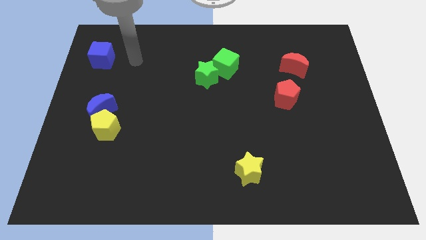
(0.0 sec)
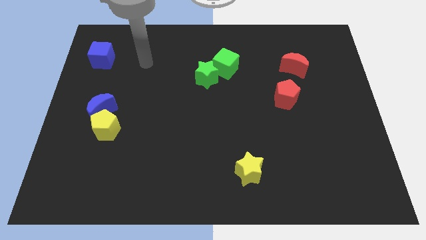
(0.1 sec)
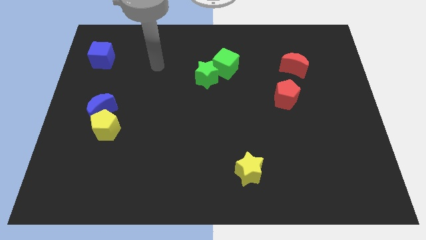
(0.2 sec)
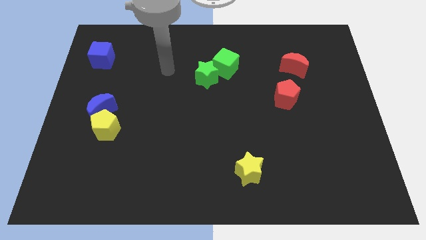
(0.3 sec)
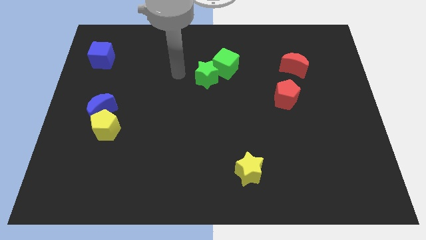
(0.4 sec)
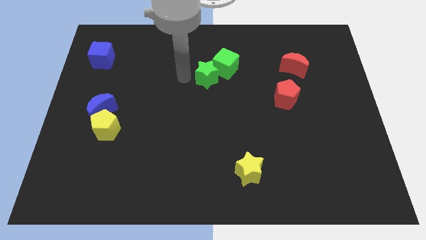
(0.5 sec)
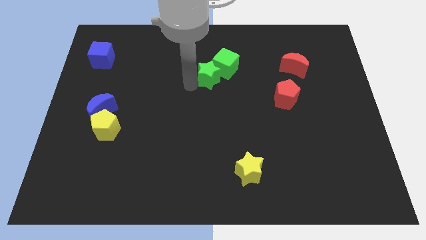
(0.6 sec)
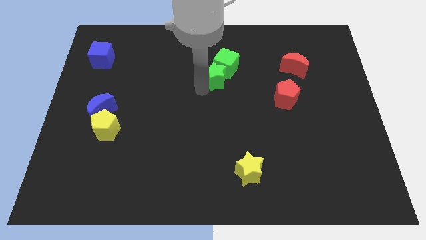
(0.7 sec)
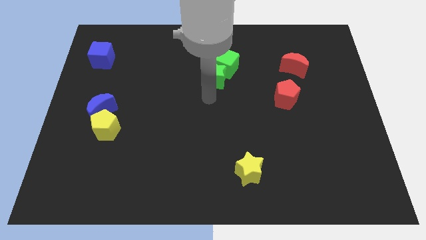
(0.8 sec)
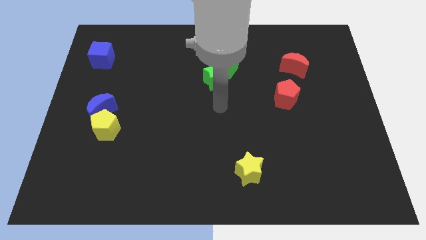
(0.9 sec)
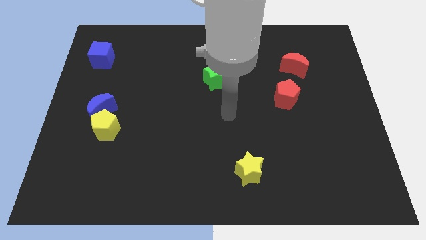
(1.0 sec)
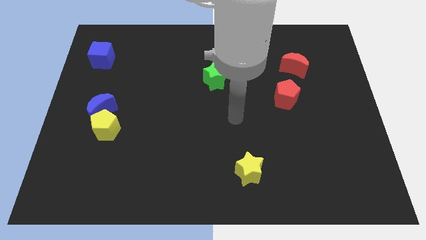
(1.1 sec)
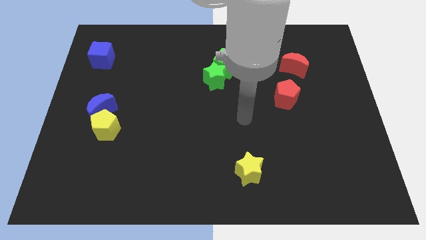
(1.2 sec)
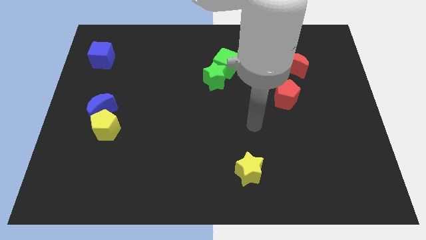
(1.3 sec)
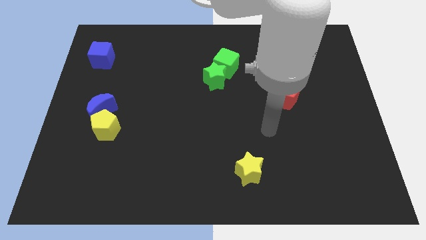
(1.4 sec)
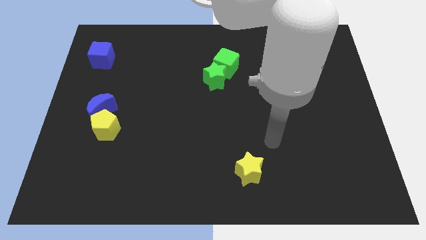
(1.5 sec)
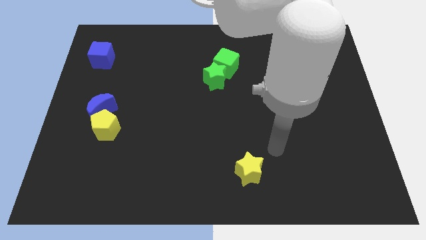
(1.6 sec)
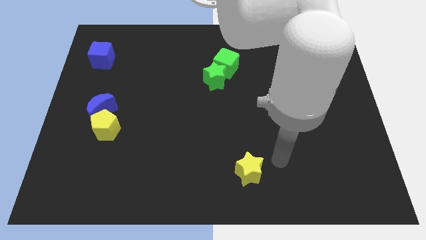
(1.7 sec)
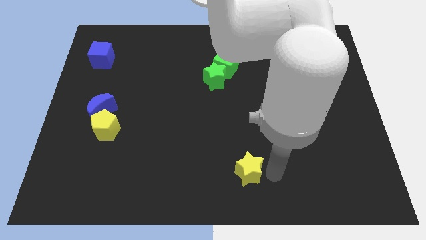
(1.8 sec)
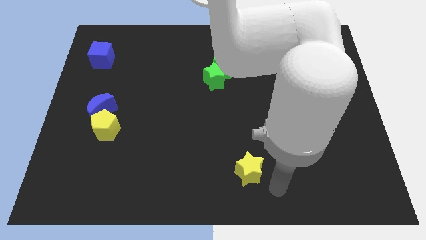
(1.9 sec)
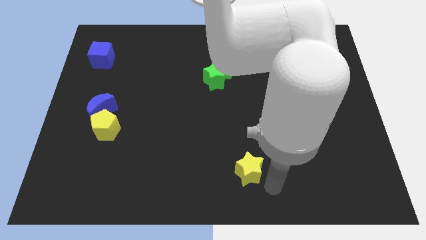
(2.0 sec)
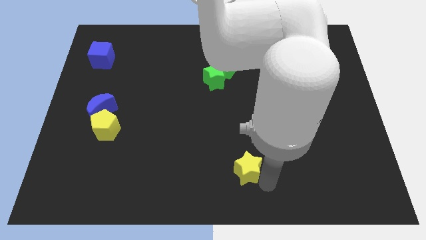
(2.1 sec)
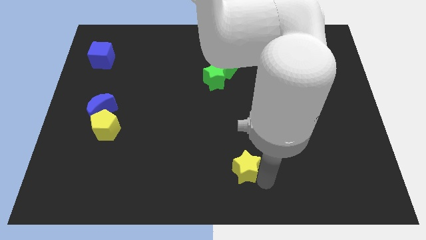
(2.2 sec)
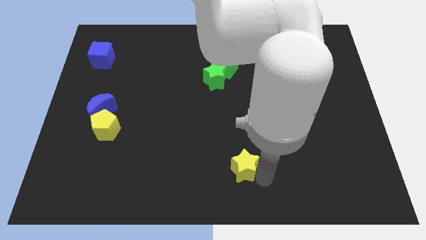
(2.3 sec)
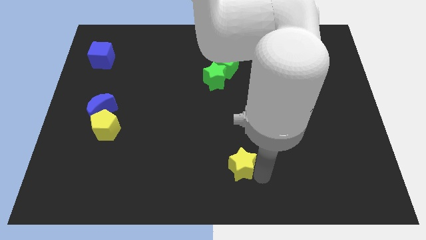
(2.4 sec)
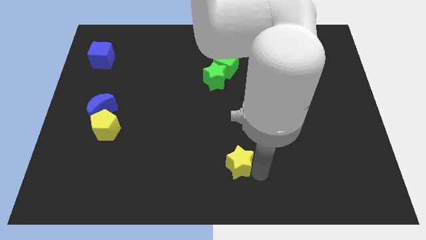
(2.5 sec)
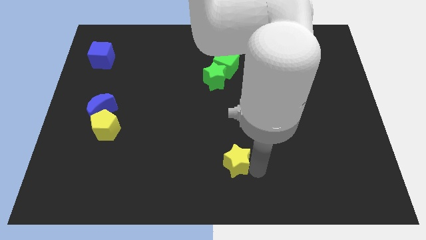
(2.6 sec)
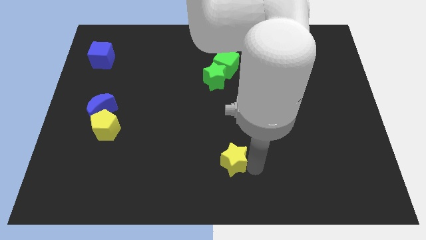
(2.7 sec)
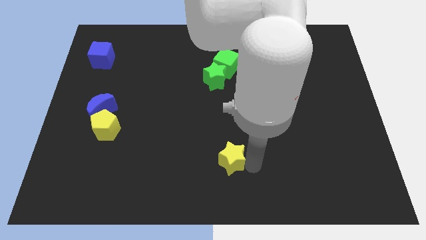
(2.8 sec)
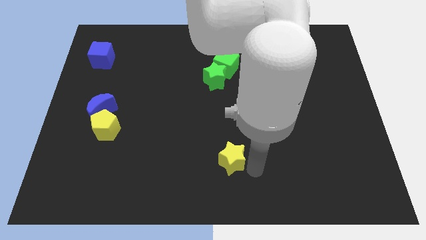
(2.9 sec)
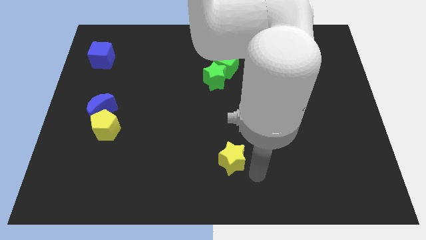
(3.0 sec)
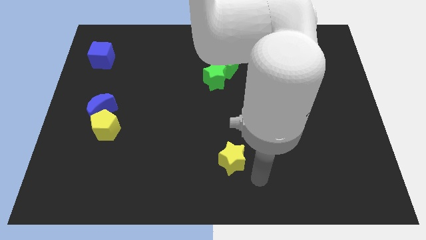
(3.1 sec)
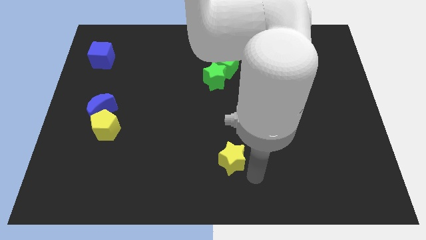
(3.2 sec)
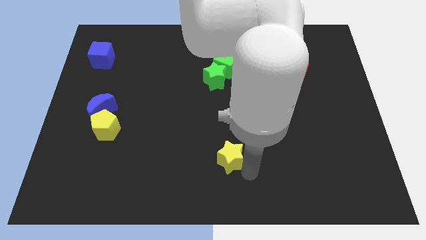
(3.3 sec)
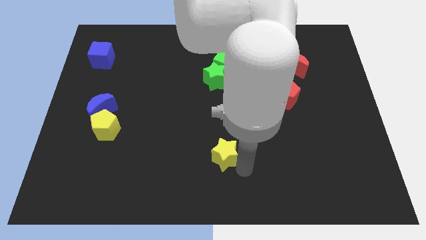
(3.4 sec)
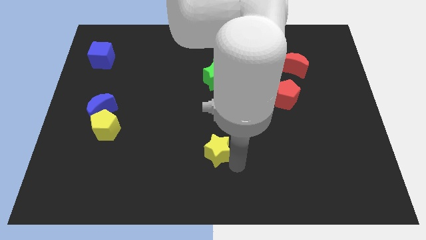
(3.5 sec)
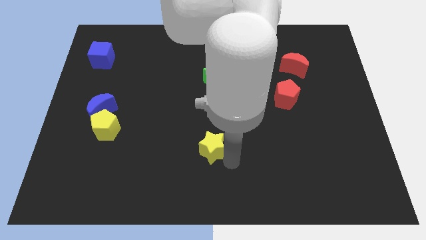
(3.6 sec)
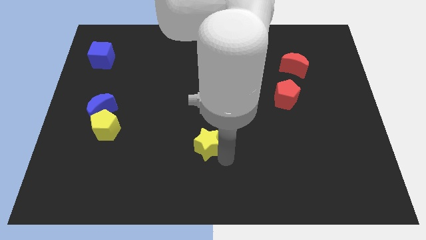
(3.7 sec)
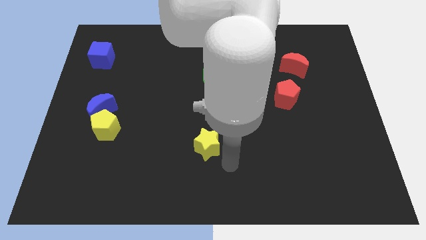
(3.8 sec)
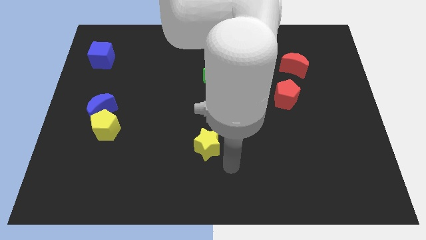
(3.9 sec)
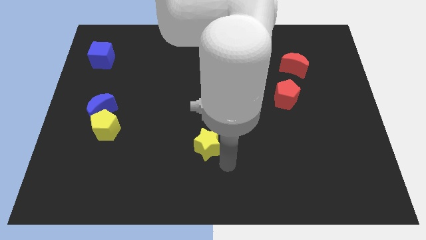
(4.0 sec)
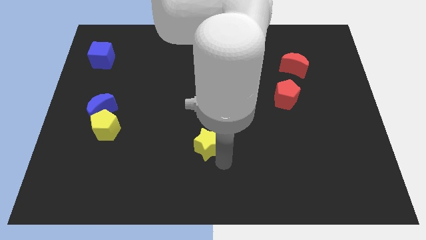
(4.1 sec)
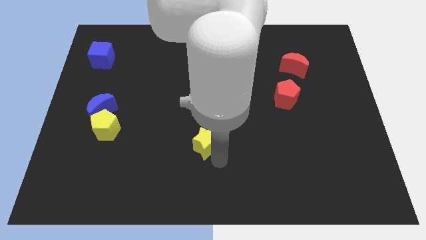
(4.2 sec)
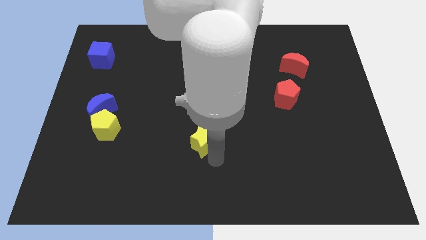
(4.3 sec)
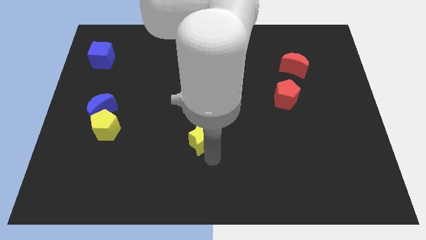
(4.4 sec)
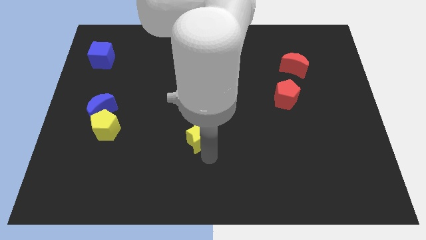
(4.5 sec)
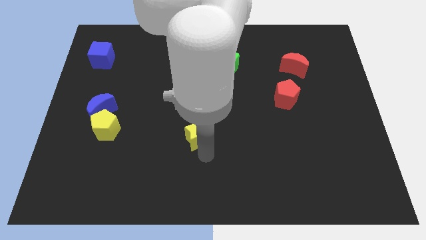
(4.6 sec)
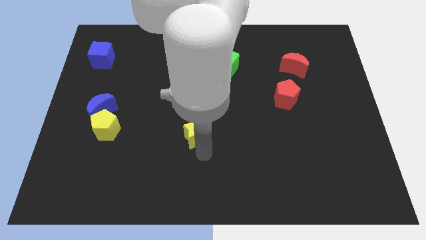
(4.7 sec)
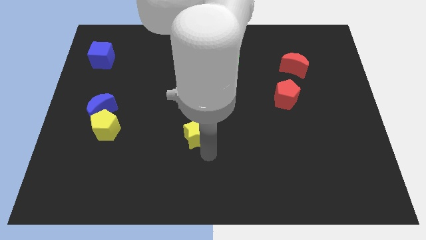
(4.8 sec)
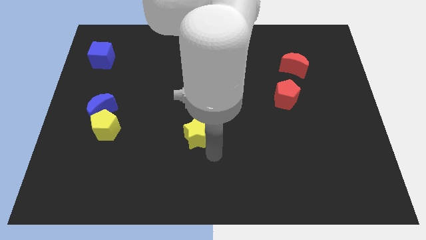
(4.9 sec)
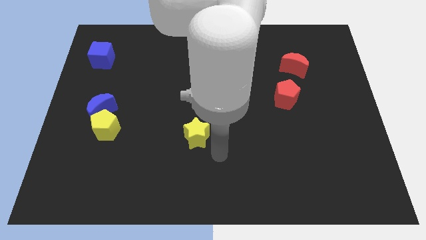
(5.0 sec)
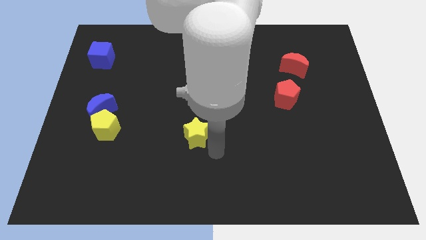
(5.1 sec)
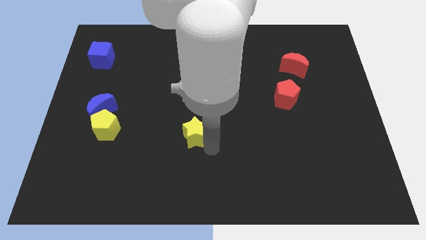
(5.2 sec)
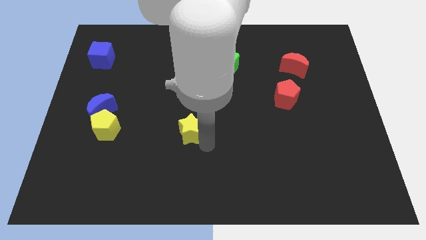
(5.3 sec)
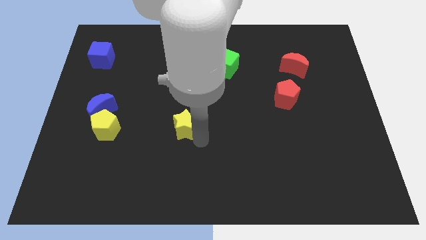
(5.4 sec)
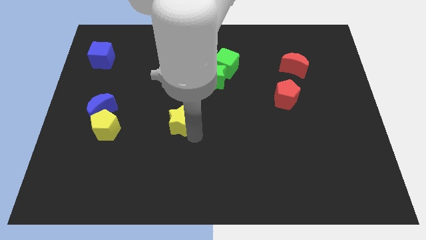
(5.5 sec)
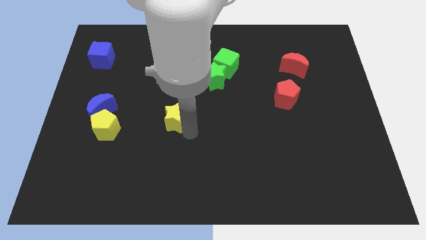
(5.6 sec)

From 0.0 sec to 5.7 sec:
slide the yellow star upwards and then to the left

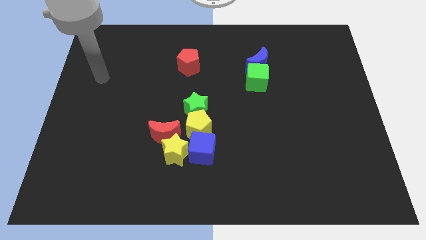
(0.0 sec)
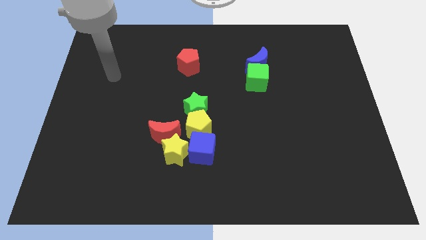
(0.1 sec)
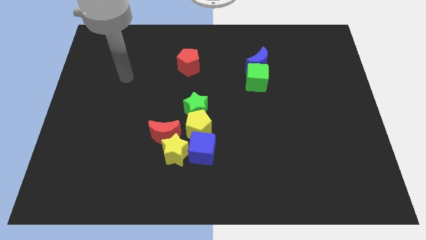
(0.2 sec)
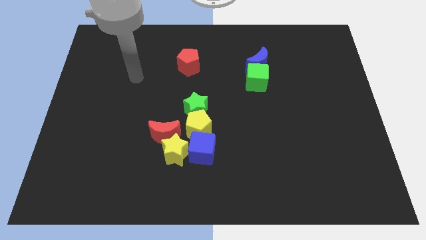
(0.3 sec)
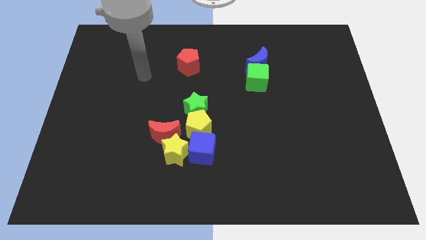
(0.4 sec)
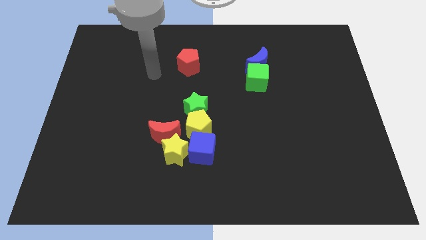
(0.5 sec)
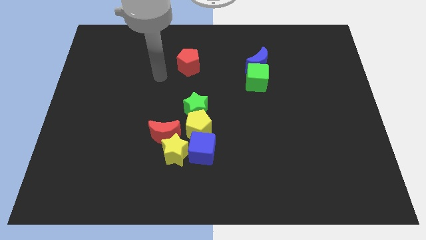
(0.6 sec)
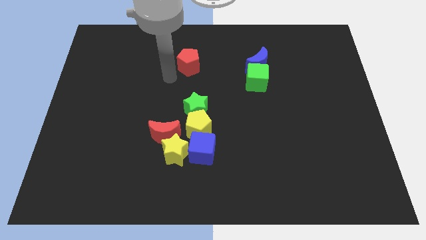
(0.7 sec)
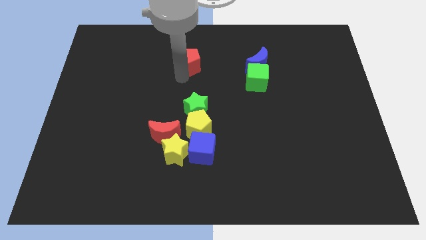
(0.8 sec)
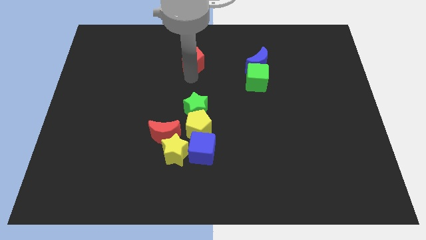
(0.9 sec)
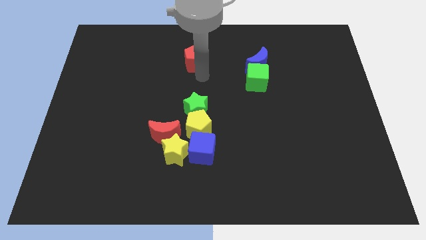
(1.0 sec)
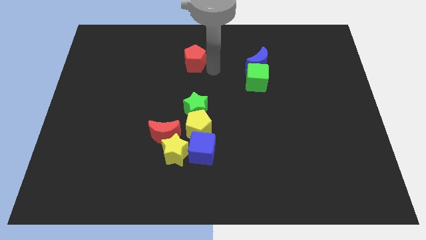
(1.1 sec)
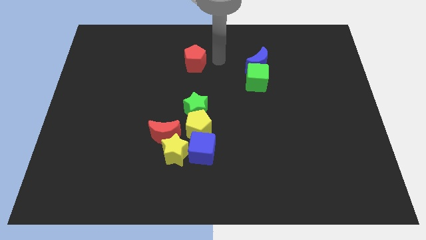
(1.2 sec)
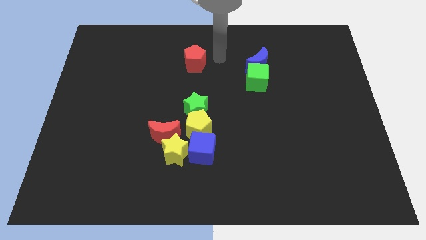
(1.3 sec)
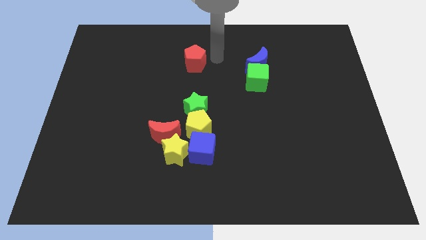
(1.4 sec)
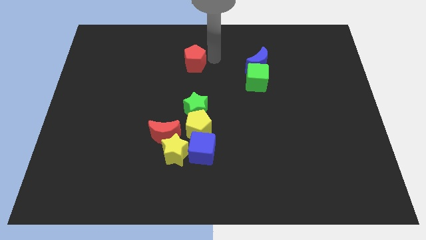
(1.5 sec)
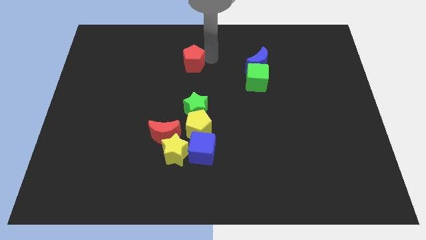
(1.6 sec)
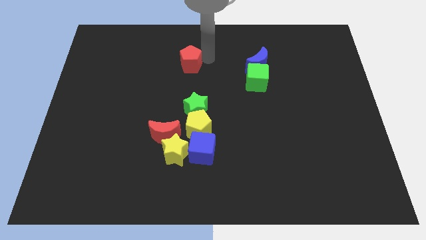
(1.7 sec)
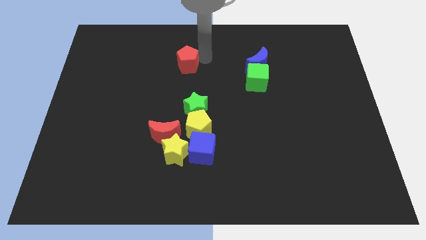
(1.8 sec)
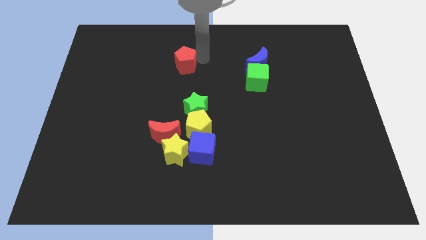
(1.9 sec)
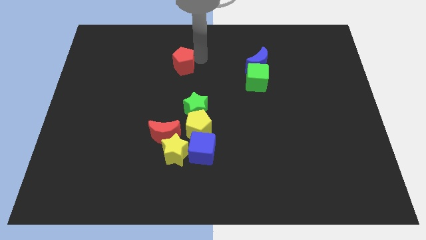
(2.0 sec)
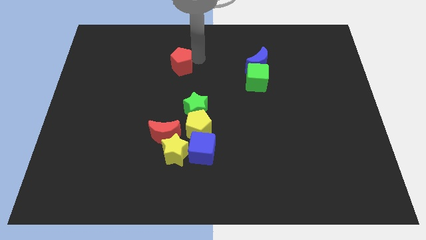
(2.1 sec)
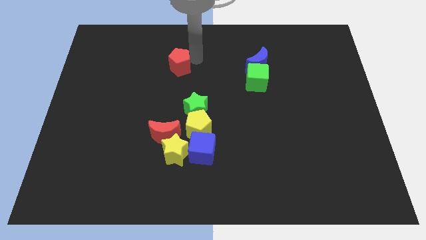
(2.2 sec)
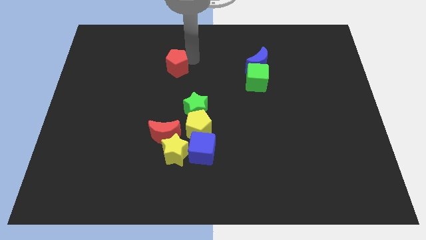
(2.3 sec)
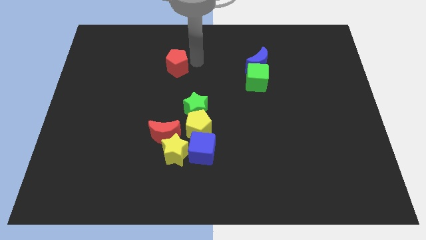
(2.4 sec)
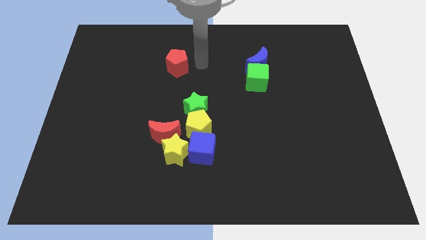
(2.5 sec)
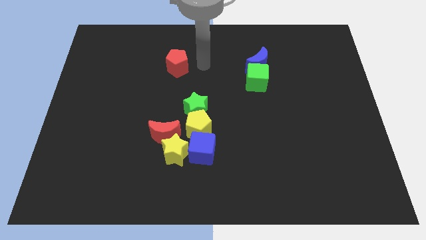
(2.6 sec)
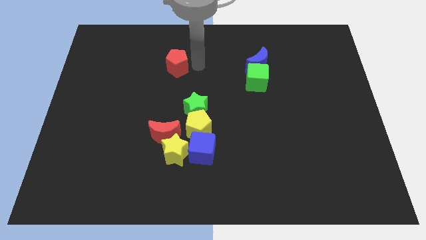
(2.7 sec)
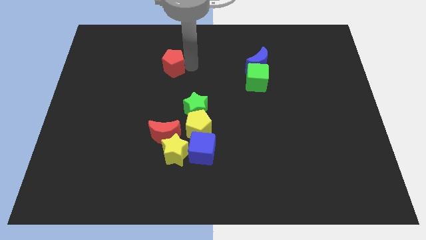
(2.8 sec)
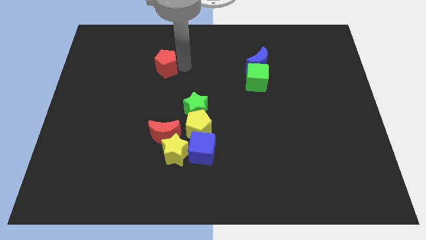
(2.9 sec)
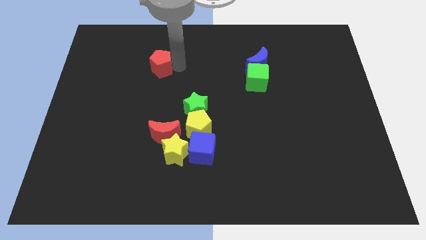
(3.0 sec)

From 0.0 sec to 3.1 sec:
push the red pentagon to the left a little bit
